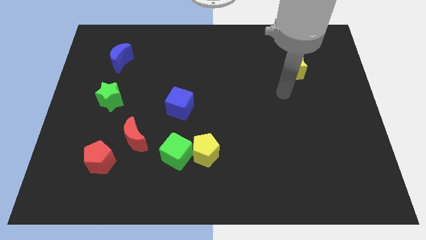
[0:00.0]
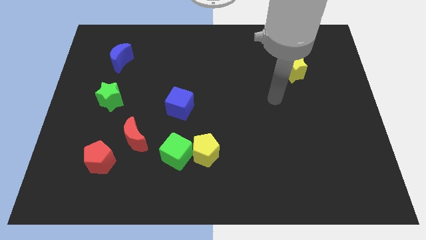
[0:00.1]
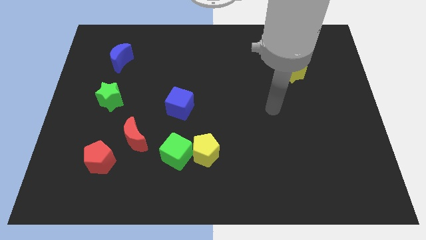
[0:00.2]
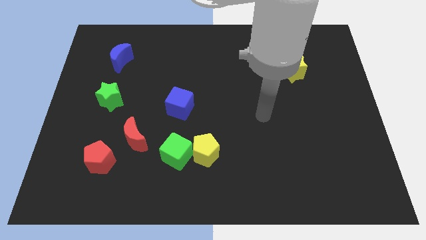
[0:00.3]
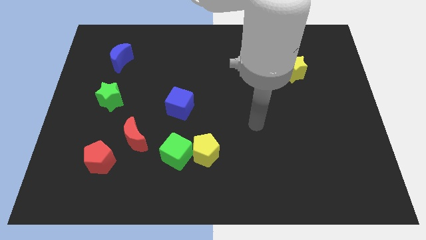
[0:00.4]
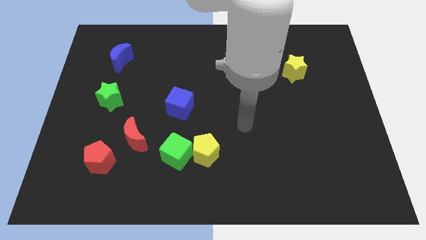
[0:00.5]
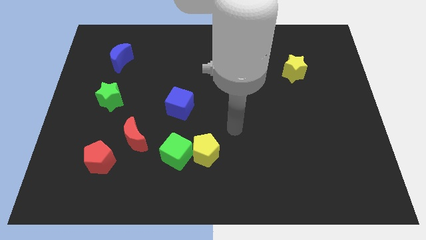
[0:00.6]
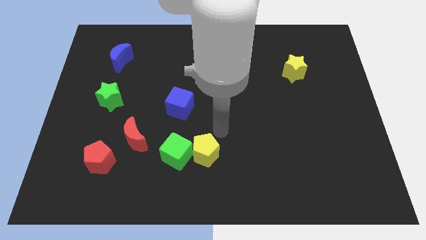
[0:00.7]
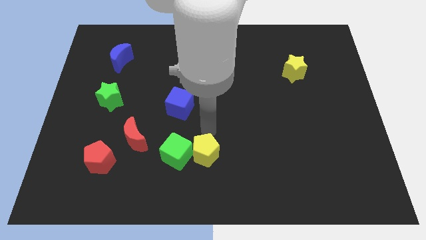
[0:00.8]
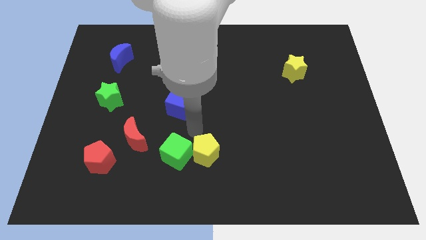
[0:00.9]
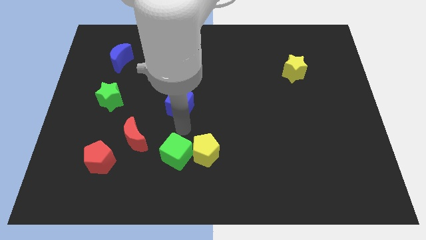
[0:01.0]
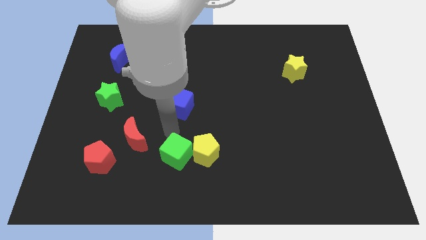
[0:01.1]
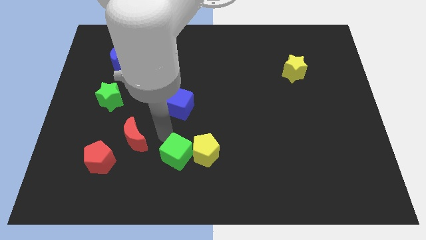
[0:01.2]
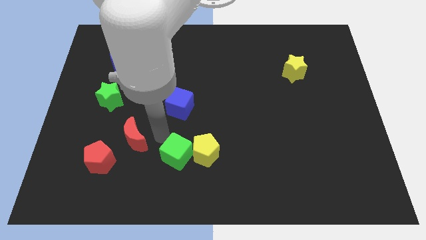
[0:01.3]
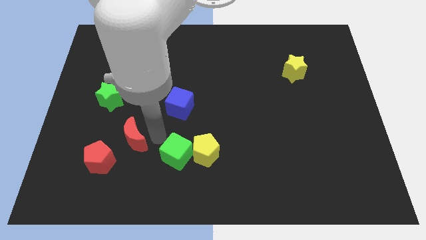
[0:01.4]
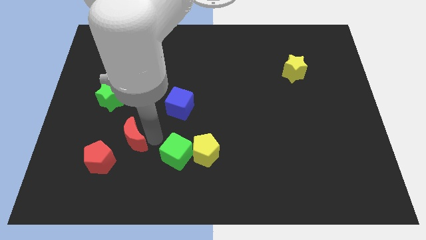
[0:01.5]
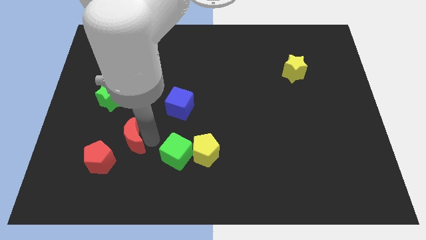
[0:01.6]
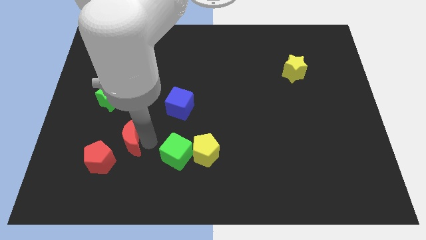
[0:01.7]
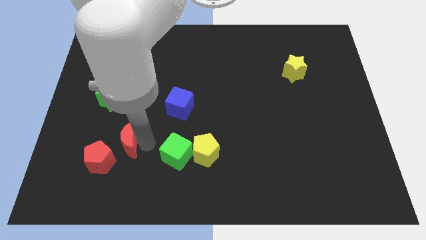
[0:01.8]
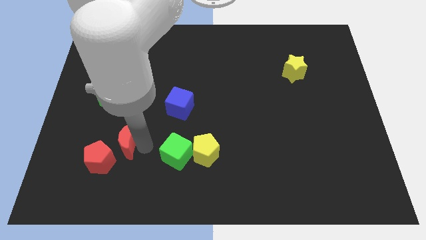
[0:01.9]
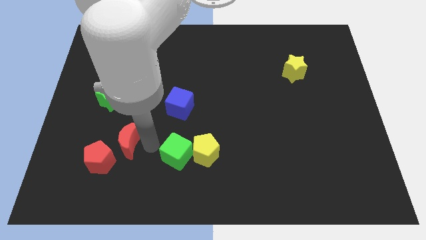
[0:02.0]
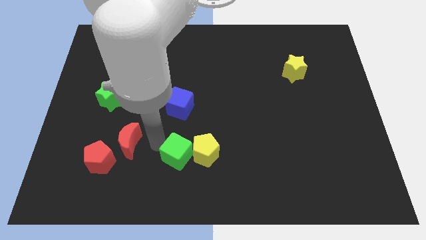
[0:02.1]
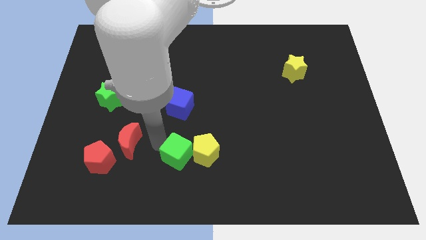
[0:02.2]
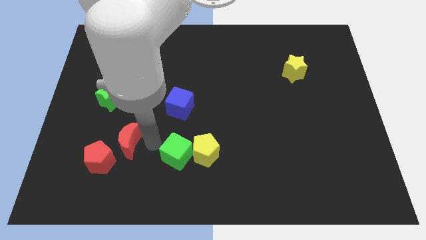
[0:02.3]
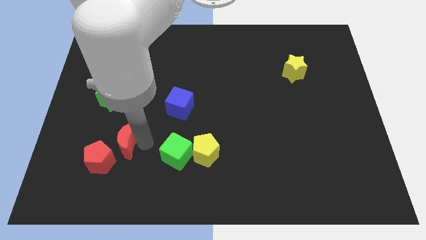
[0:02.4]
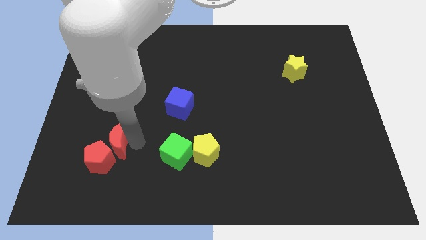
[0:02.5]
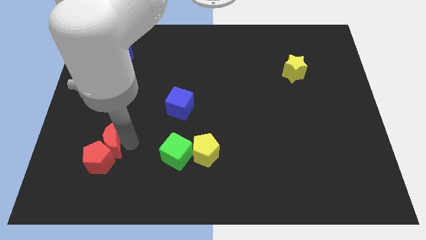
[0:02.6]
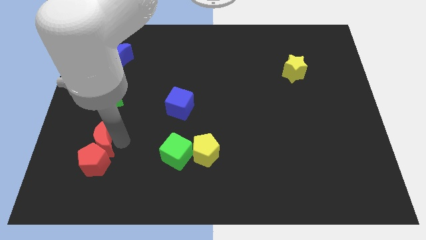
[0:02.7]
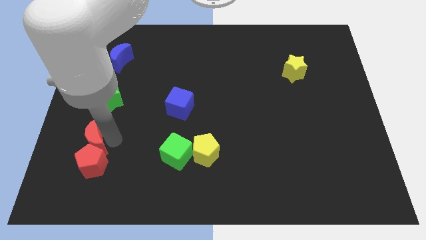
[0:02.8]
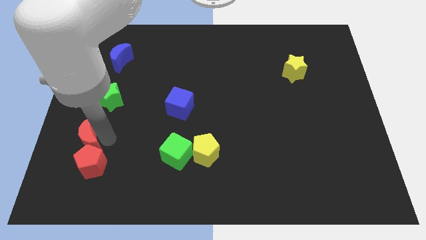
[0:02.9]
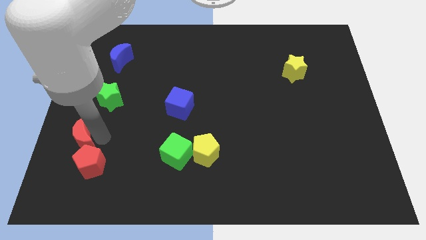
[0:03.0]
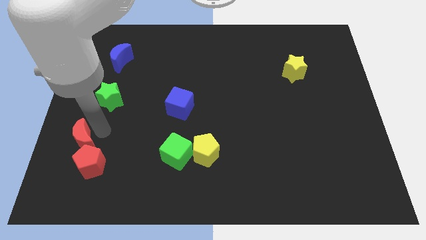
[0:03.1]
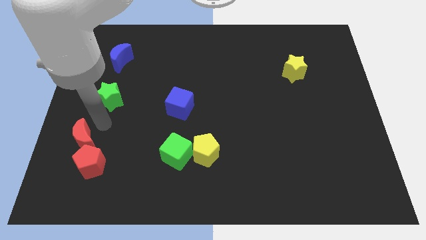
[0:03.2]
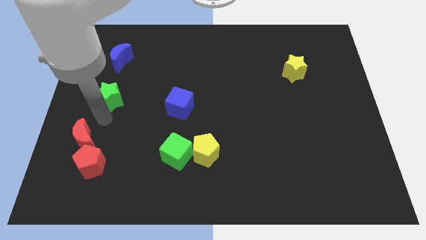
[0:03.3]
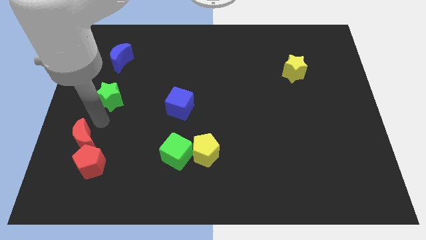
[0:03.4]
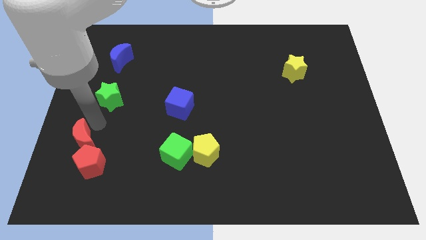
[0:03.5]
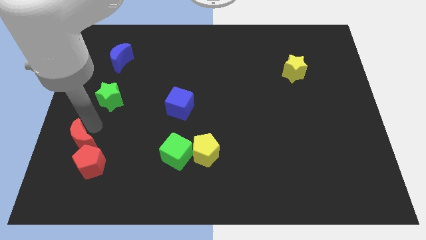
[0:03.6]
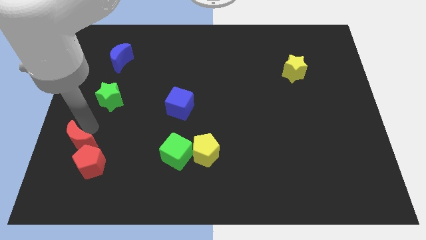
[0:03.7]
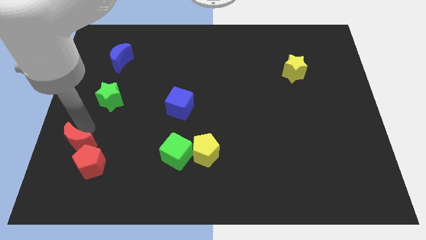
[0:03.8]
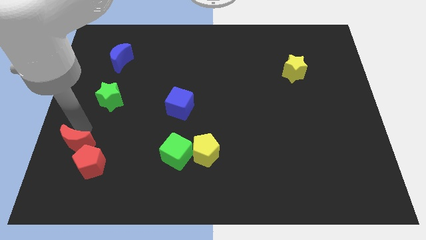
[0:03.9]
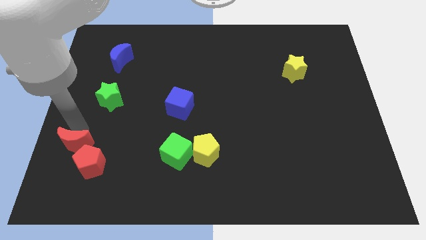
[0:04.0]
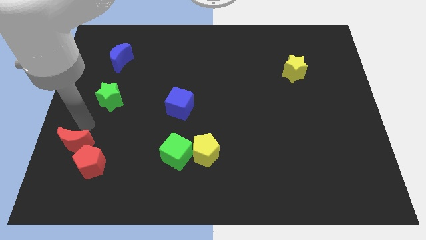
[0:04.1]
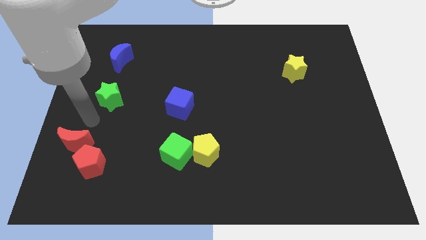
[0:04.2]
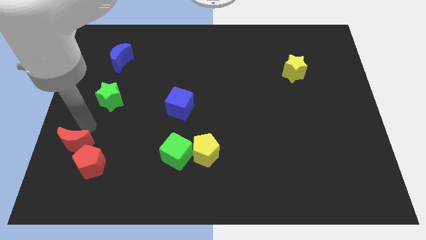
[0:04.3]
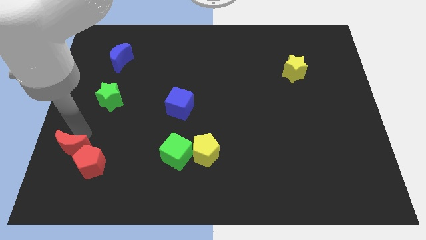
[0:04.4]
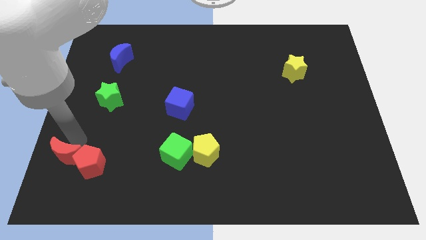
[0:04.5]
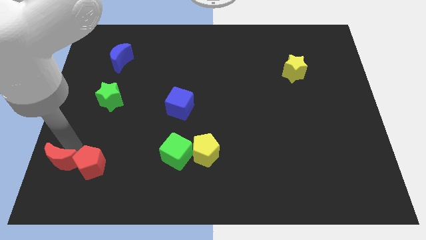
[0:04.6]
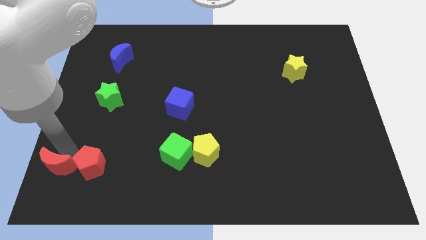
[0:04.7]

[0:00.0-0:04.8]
move the red moon to the lower left corner

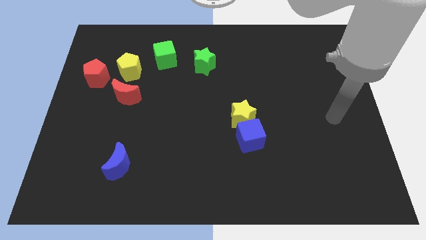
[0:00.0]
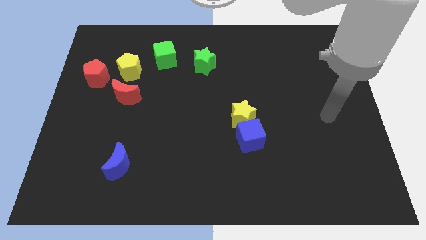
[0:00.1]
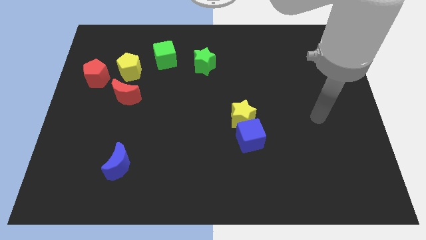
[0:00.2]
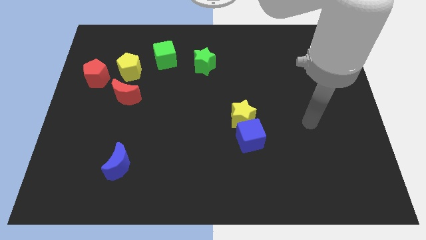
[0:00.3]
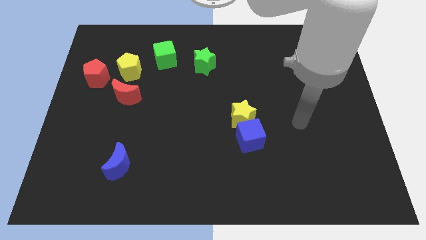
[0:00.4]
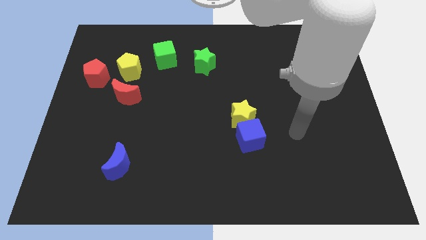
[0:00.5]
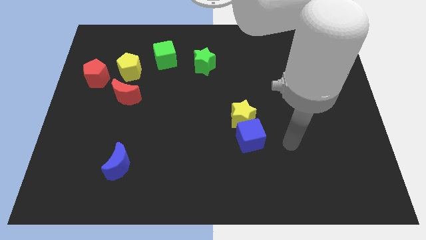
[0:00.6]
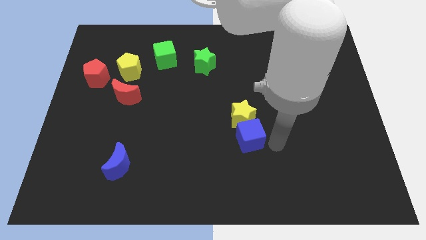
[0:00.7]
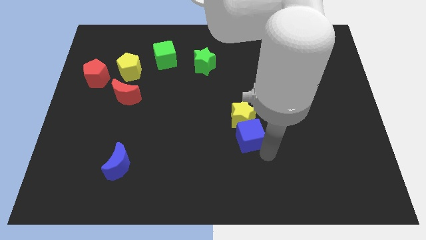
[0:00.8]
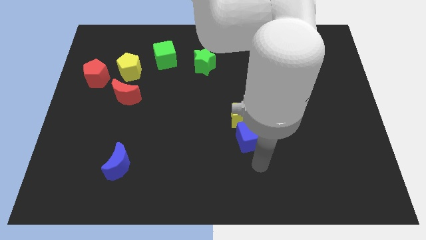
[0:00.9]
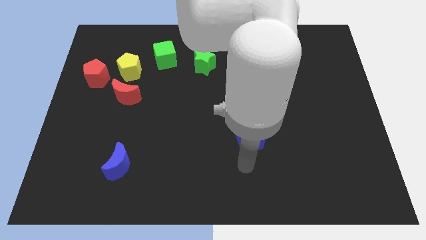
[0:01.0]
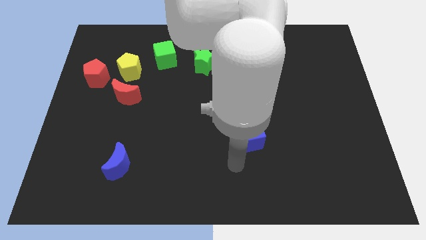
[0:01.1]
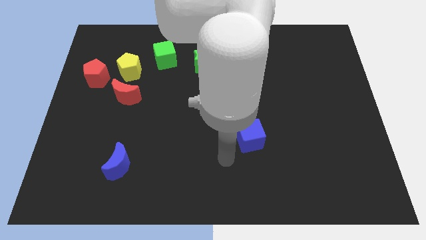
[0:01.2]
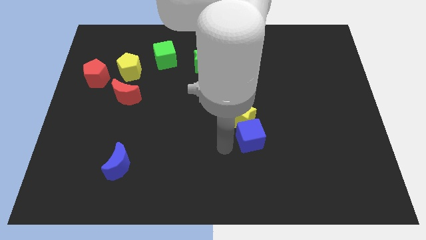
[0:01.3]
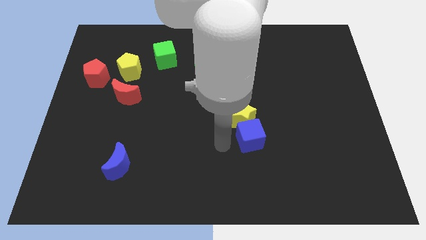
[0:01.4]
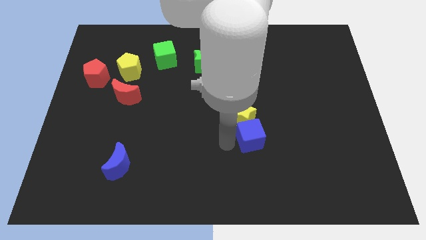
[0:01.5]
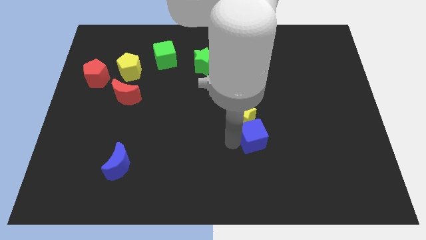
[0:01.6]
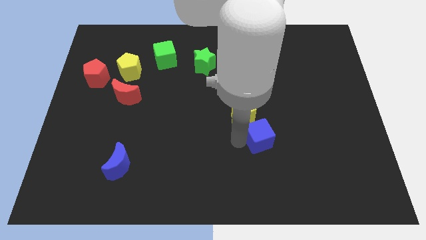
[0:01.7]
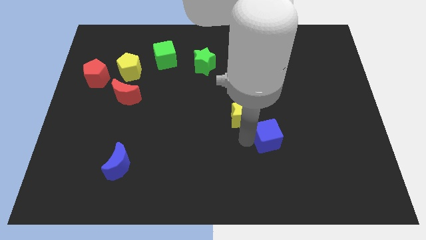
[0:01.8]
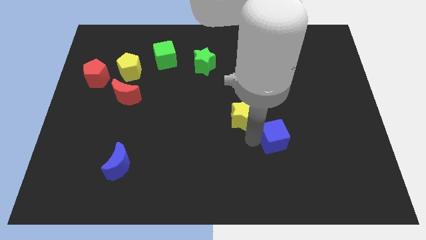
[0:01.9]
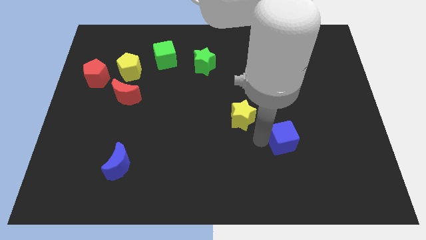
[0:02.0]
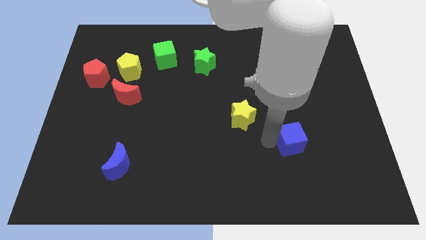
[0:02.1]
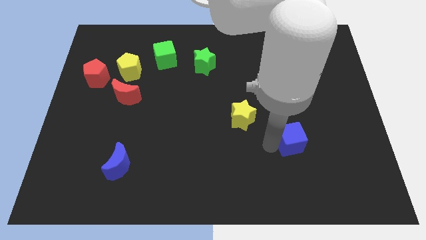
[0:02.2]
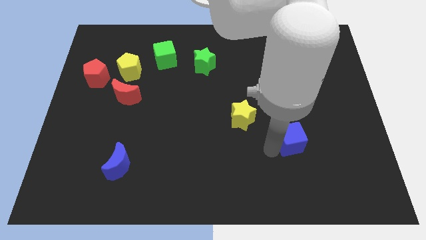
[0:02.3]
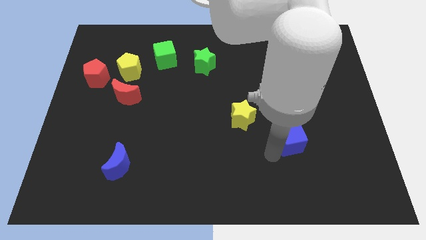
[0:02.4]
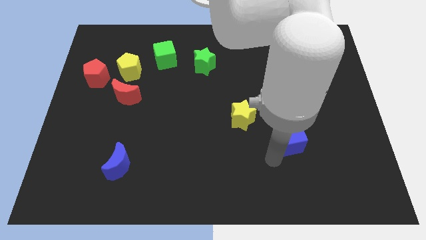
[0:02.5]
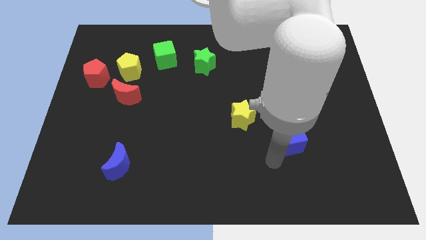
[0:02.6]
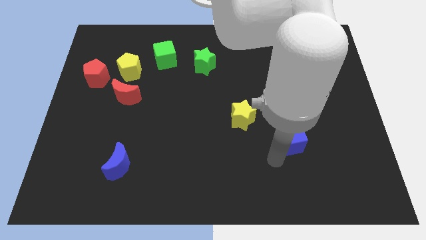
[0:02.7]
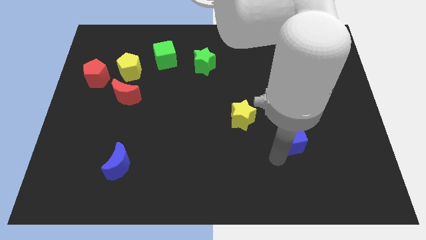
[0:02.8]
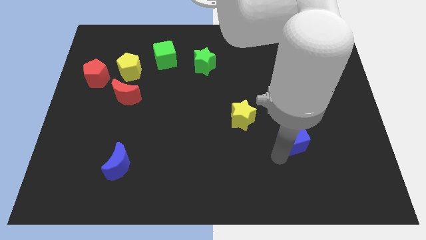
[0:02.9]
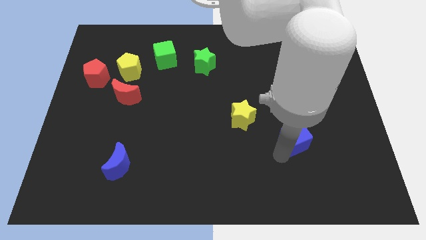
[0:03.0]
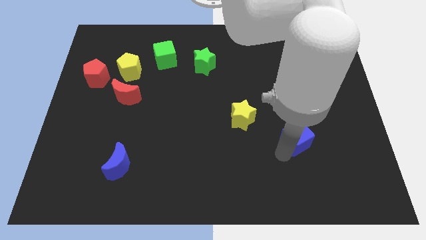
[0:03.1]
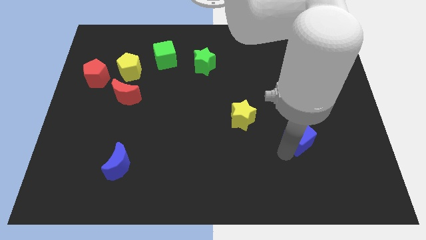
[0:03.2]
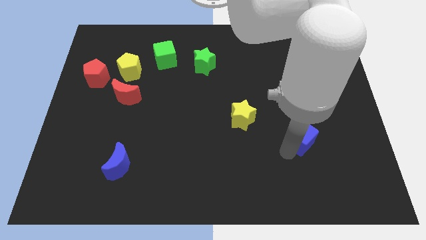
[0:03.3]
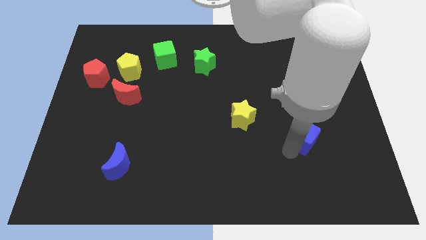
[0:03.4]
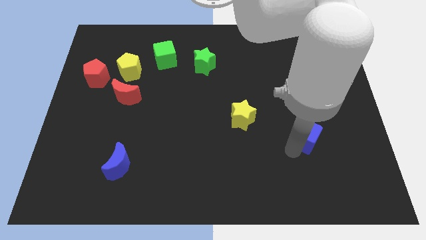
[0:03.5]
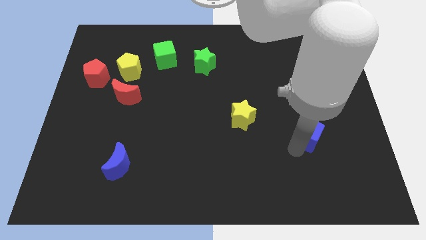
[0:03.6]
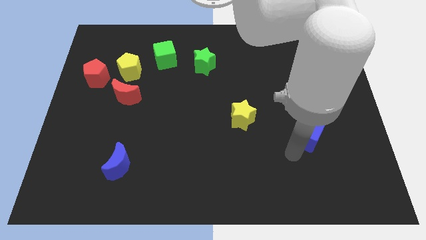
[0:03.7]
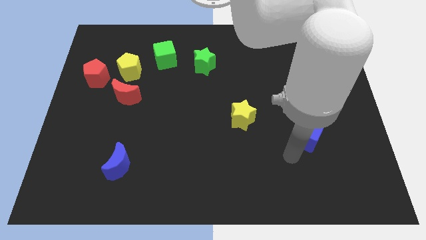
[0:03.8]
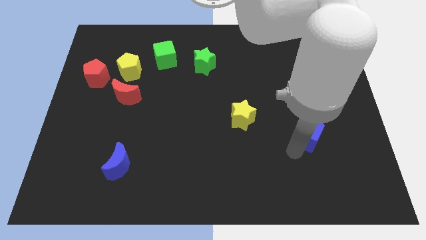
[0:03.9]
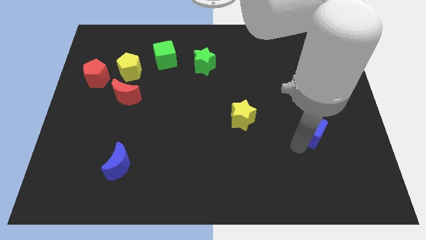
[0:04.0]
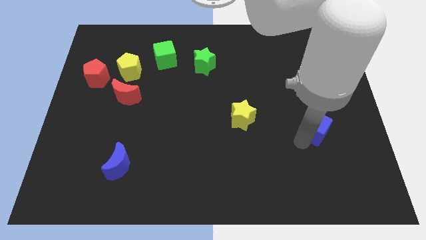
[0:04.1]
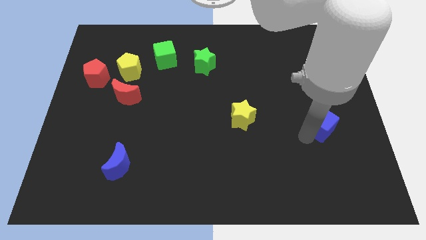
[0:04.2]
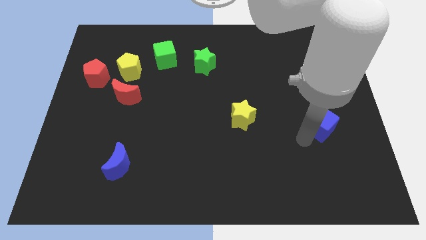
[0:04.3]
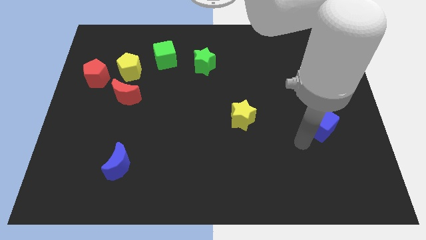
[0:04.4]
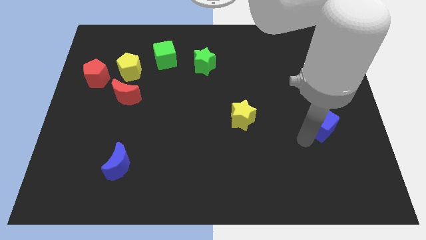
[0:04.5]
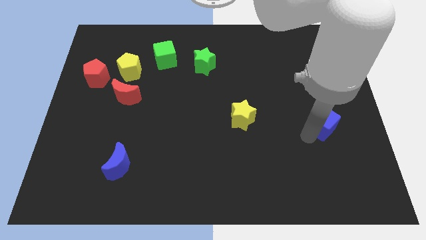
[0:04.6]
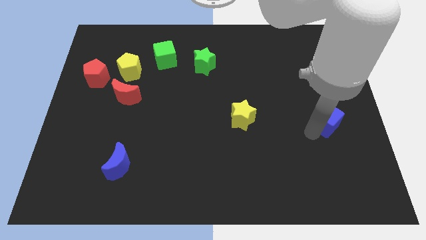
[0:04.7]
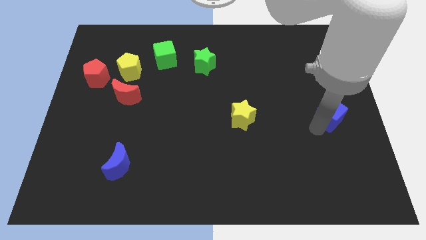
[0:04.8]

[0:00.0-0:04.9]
slide the blue cube to the center right
